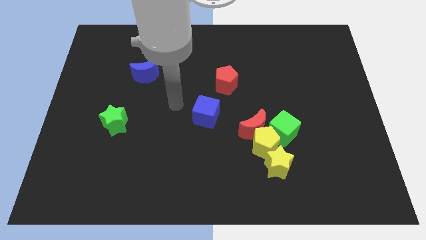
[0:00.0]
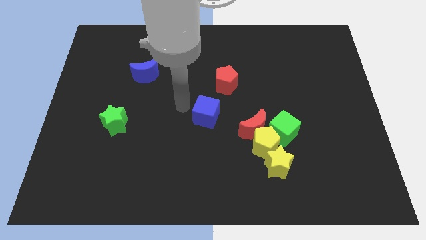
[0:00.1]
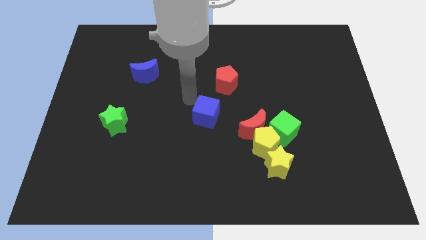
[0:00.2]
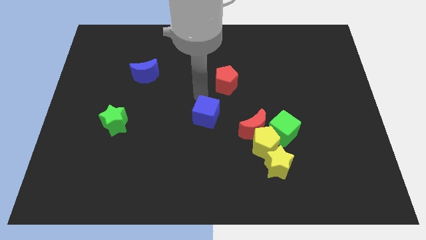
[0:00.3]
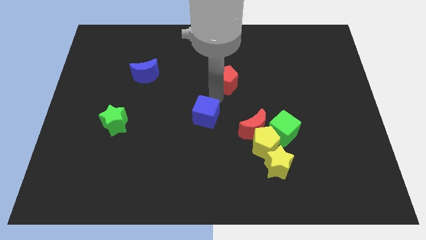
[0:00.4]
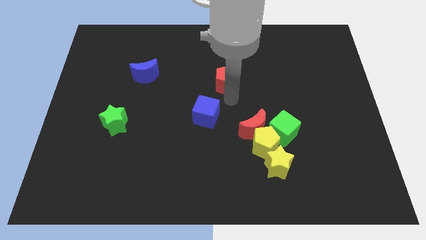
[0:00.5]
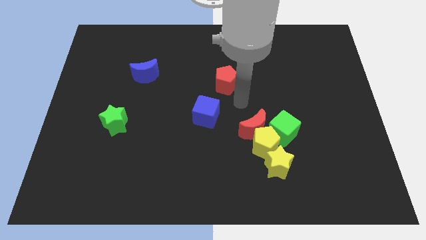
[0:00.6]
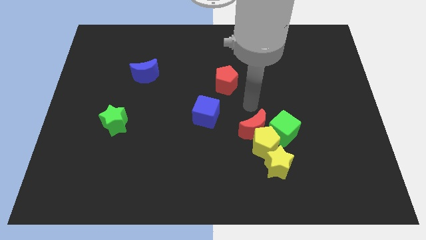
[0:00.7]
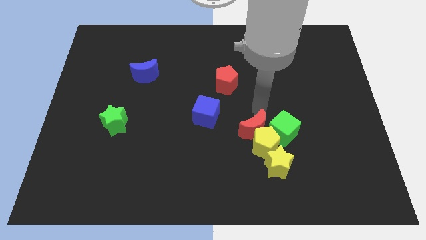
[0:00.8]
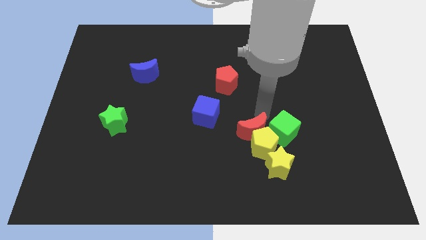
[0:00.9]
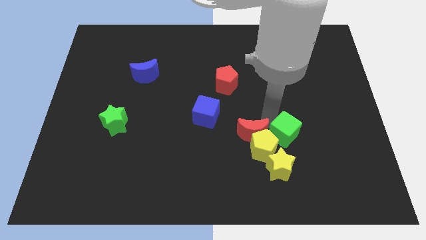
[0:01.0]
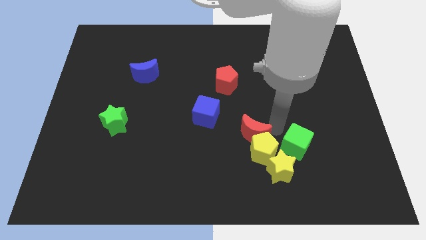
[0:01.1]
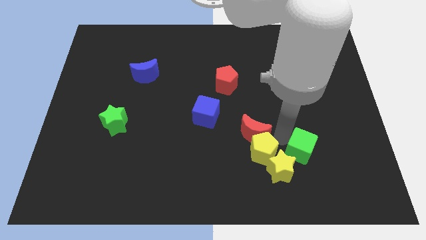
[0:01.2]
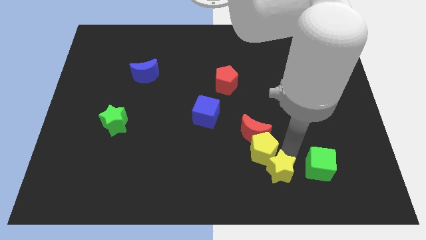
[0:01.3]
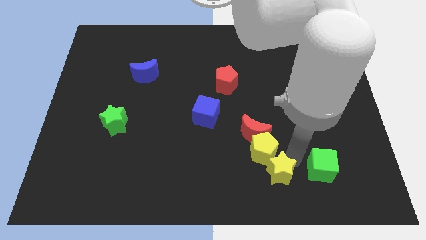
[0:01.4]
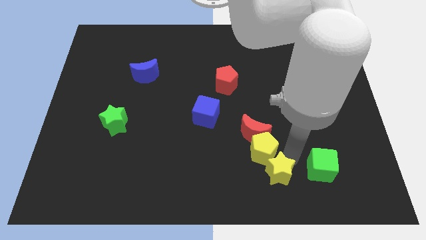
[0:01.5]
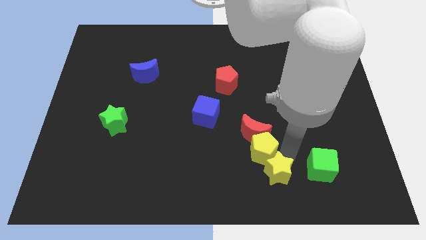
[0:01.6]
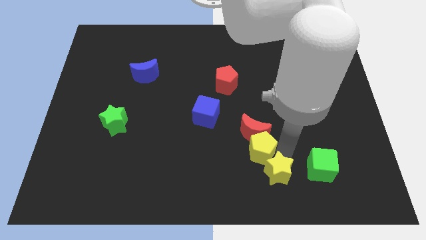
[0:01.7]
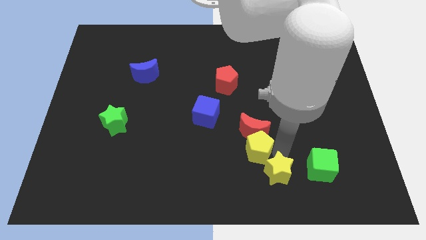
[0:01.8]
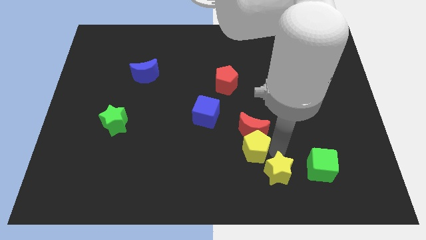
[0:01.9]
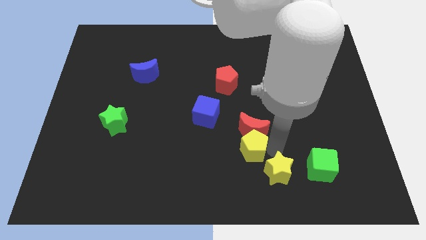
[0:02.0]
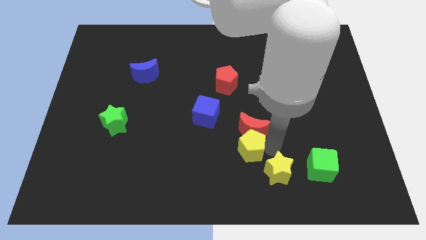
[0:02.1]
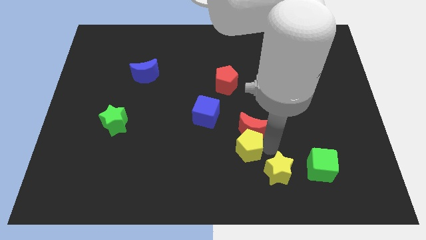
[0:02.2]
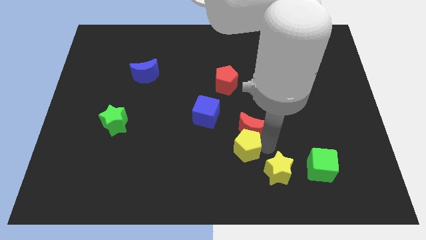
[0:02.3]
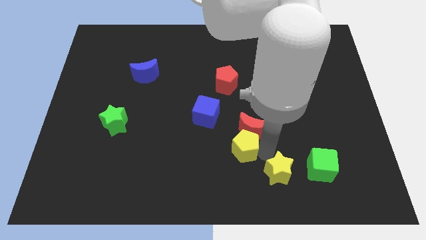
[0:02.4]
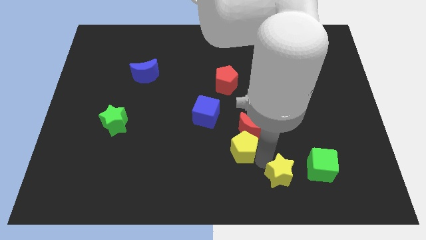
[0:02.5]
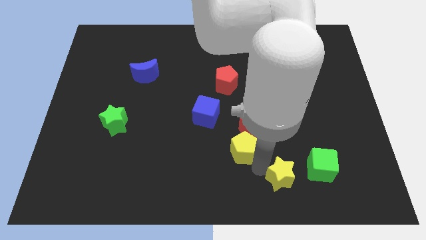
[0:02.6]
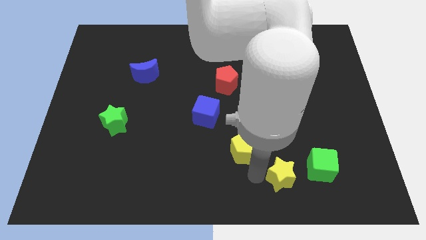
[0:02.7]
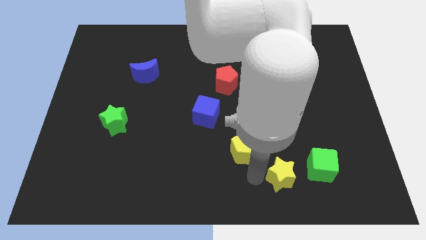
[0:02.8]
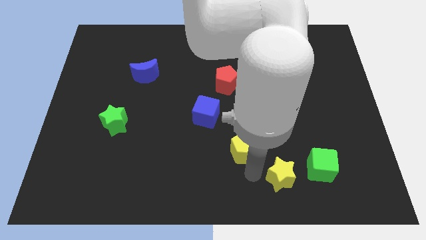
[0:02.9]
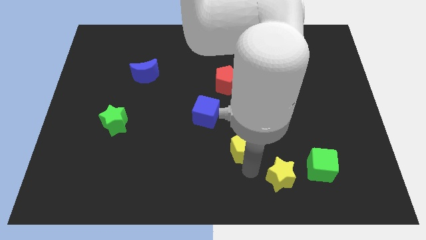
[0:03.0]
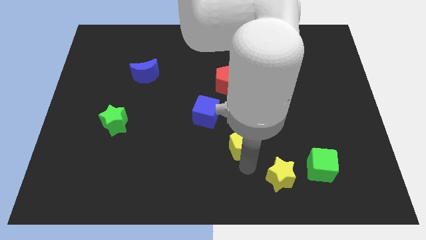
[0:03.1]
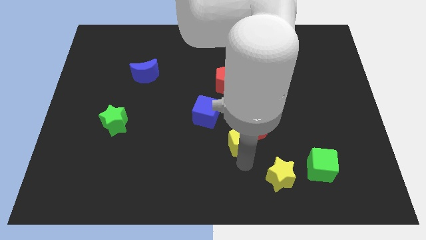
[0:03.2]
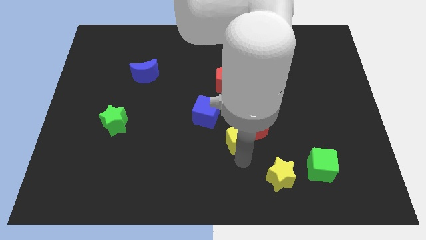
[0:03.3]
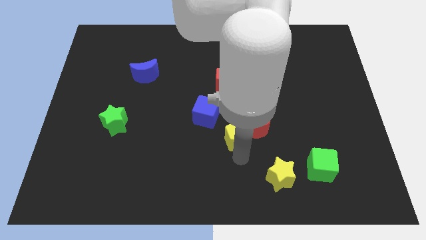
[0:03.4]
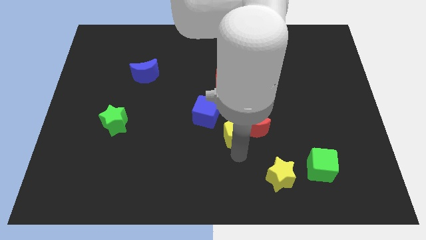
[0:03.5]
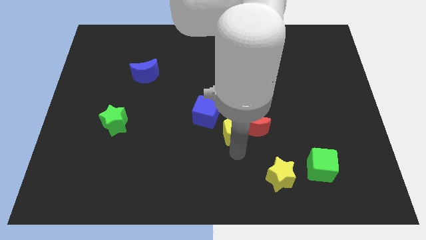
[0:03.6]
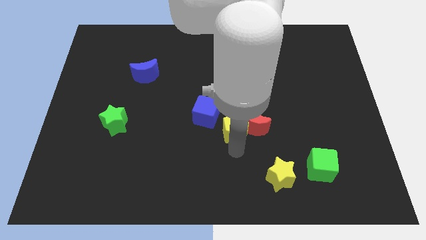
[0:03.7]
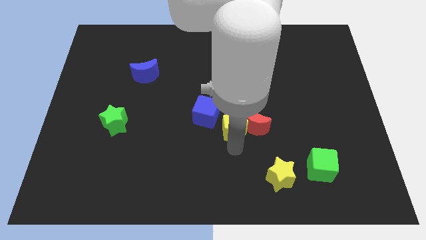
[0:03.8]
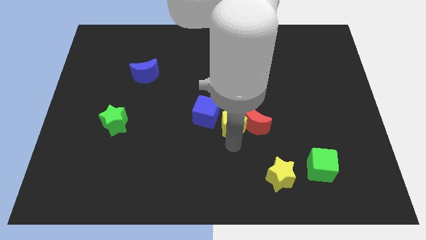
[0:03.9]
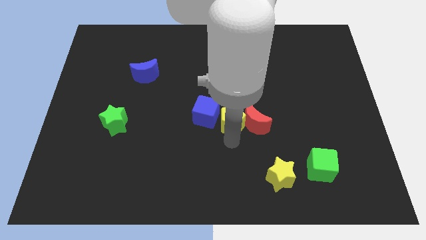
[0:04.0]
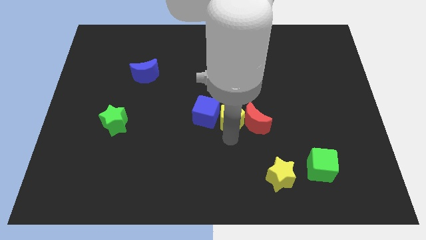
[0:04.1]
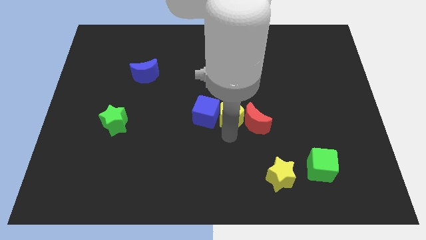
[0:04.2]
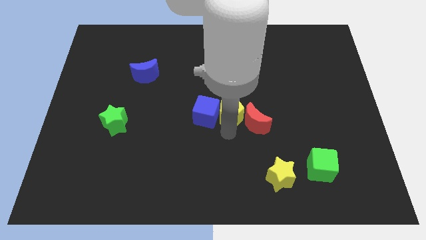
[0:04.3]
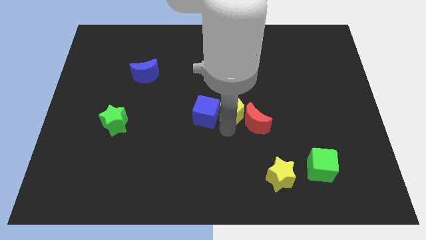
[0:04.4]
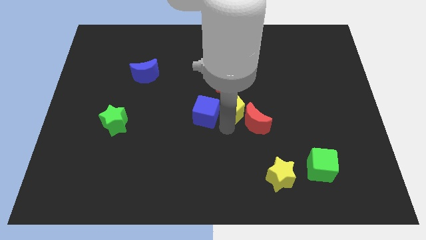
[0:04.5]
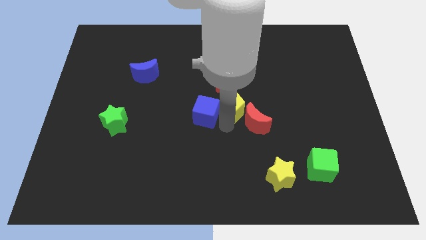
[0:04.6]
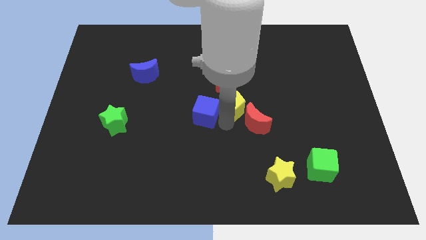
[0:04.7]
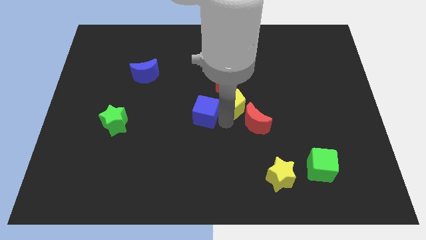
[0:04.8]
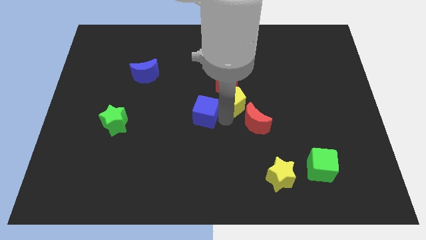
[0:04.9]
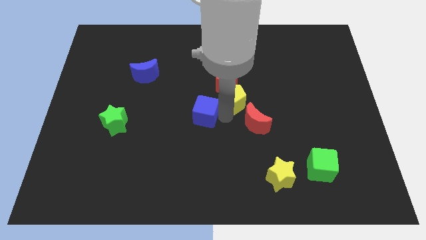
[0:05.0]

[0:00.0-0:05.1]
slide the yellow pentagon towards the red pentagon

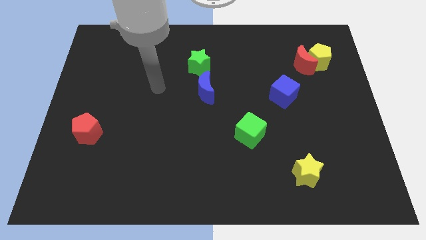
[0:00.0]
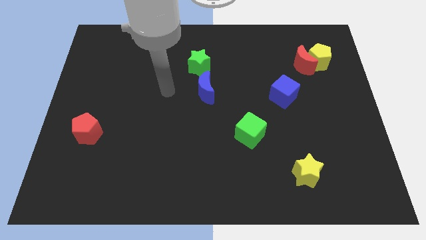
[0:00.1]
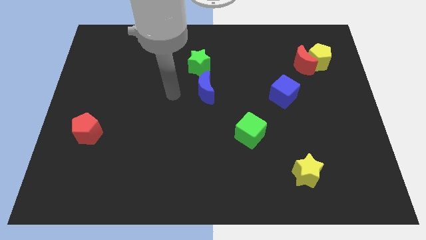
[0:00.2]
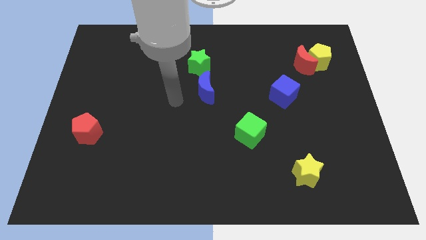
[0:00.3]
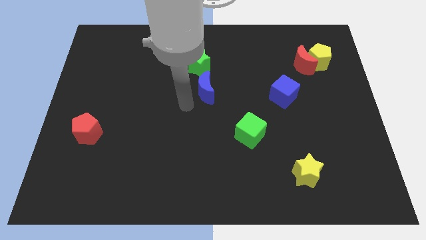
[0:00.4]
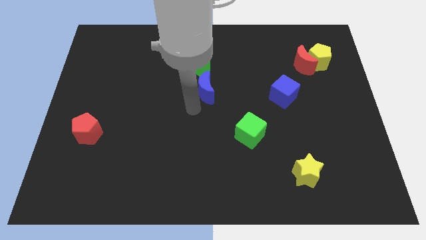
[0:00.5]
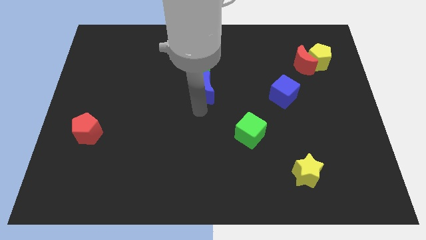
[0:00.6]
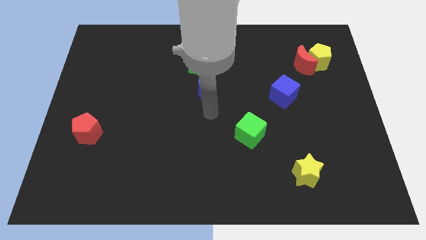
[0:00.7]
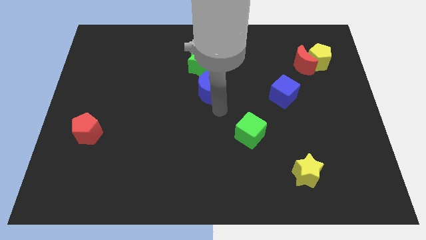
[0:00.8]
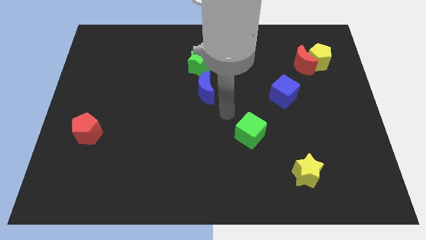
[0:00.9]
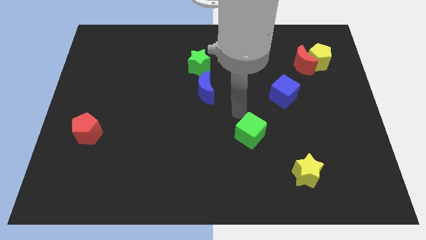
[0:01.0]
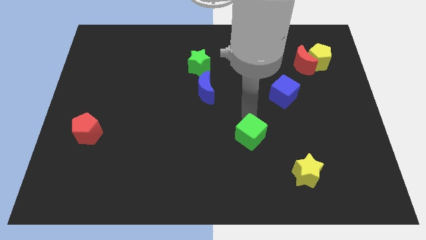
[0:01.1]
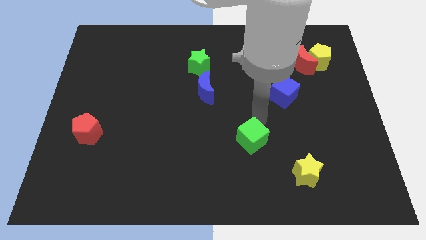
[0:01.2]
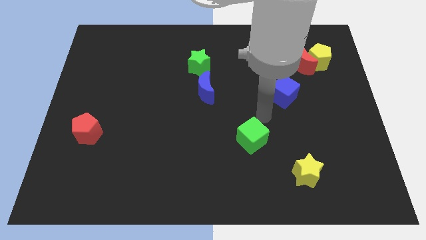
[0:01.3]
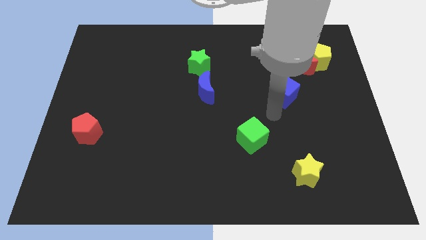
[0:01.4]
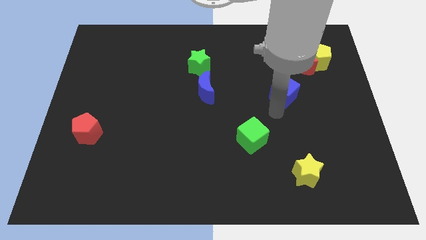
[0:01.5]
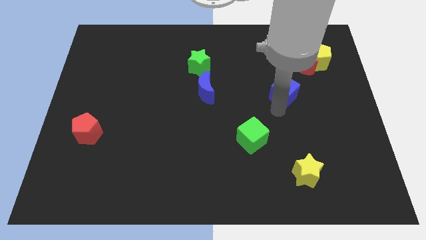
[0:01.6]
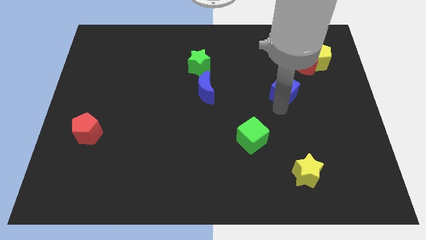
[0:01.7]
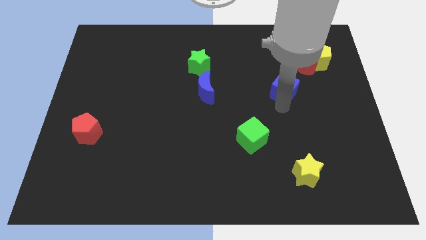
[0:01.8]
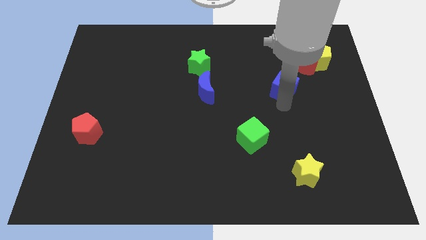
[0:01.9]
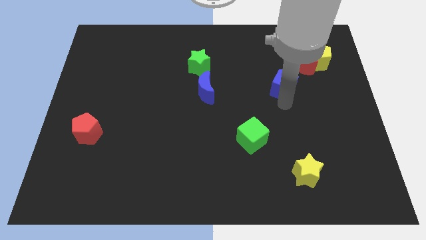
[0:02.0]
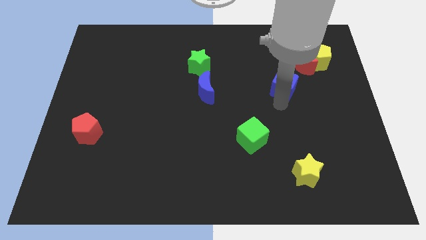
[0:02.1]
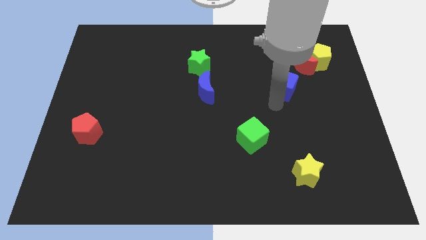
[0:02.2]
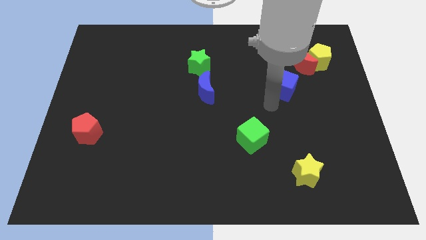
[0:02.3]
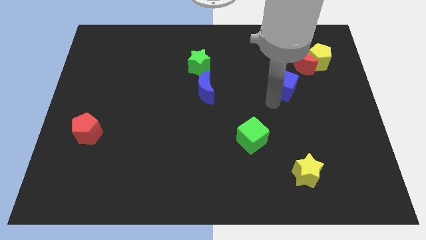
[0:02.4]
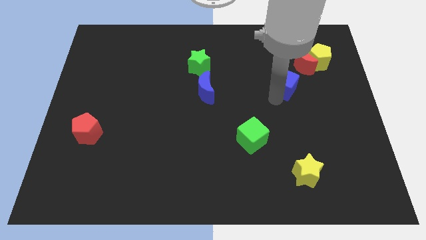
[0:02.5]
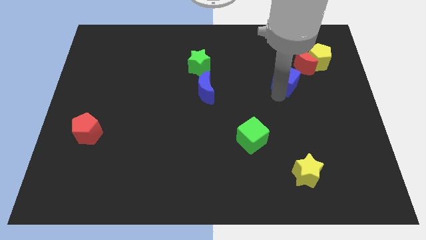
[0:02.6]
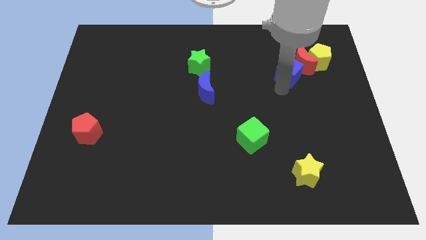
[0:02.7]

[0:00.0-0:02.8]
put the blue cube next to the red moon

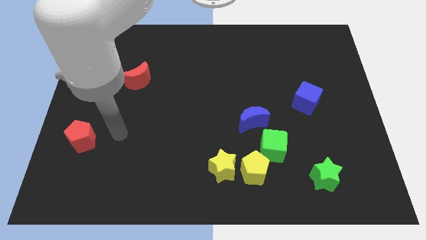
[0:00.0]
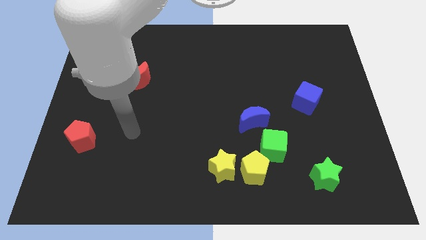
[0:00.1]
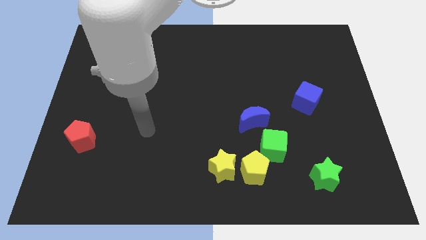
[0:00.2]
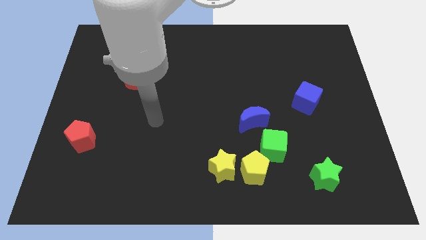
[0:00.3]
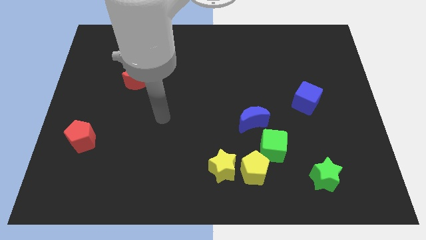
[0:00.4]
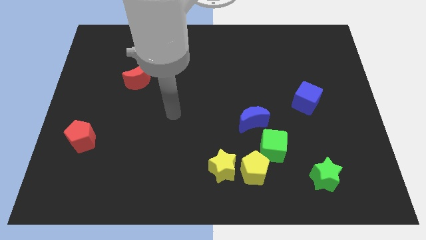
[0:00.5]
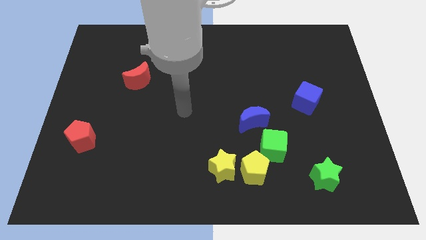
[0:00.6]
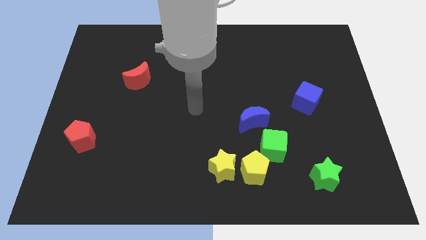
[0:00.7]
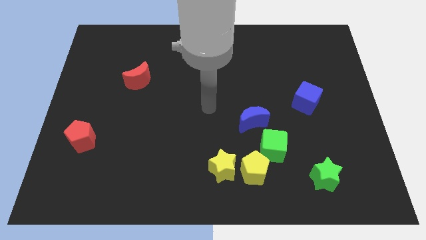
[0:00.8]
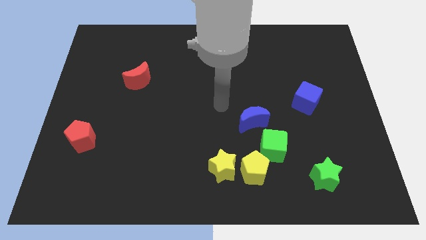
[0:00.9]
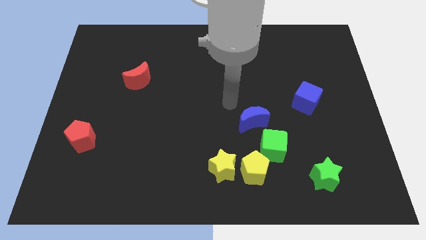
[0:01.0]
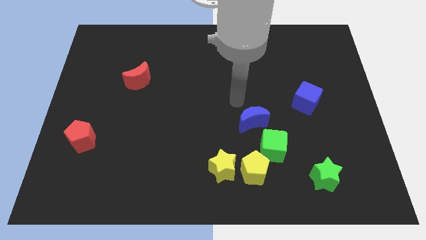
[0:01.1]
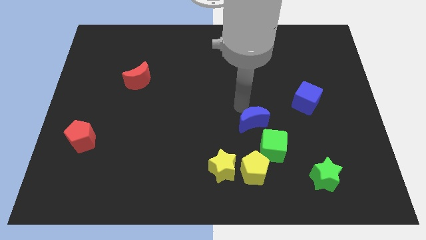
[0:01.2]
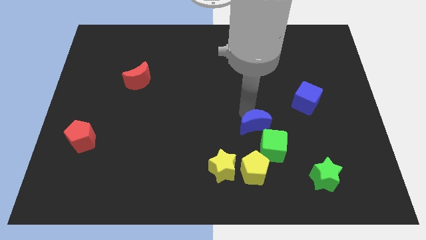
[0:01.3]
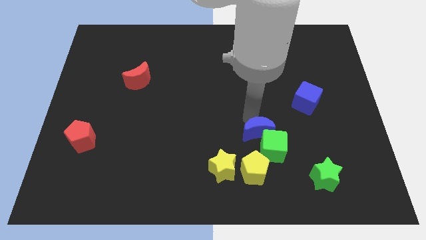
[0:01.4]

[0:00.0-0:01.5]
slide the blue moon to the green cube
